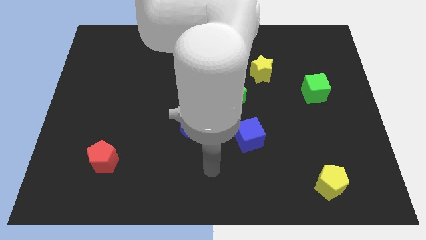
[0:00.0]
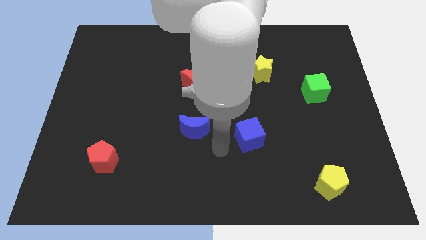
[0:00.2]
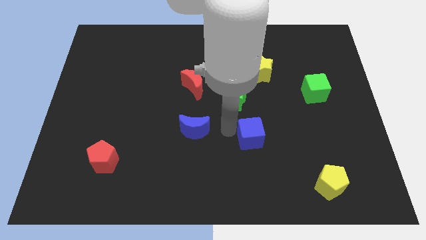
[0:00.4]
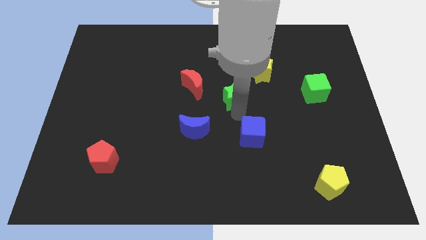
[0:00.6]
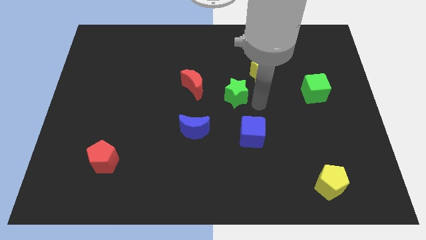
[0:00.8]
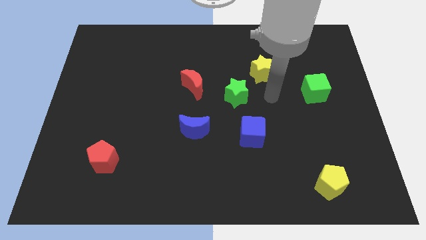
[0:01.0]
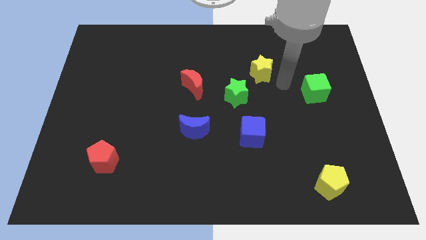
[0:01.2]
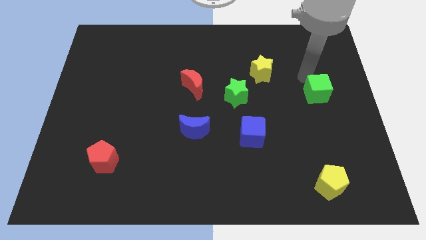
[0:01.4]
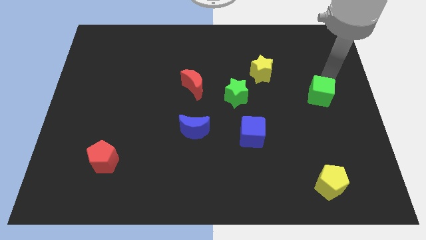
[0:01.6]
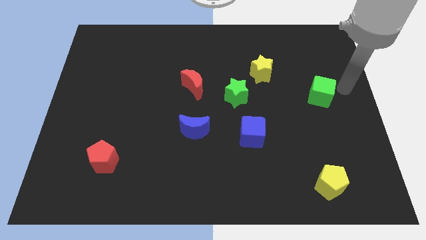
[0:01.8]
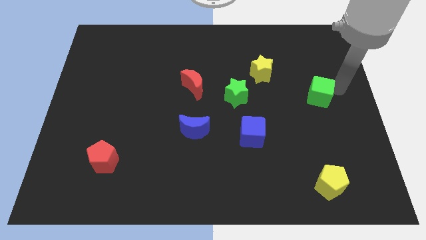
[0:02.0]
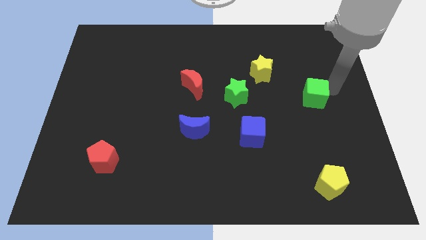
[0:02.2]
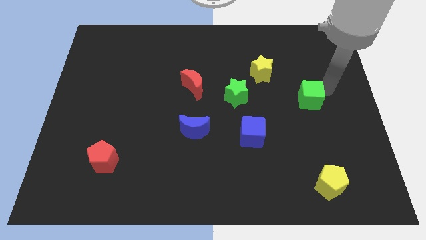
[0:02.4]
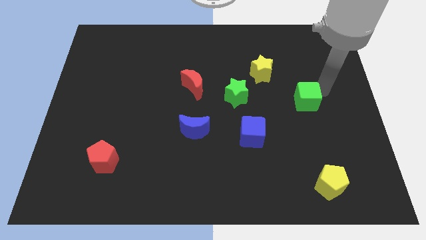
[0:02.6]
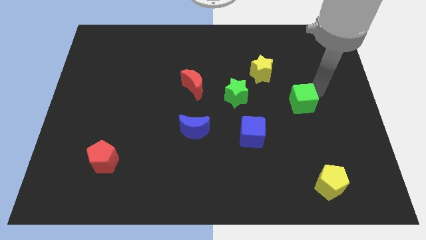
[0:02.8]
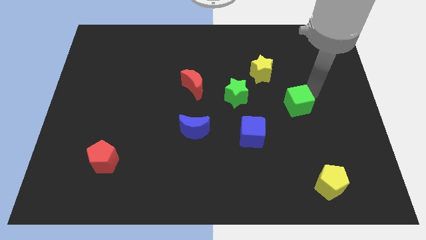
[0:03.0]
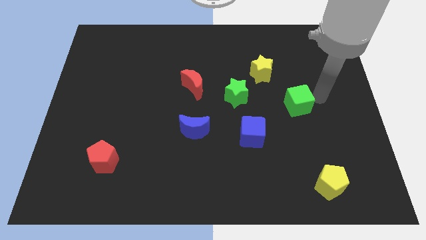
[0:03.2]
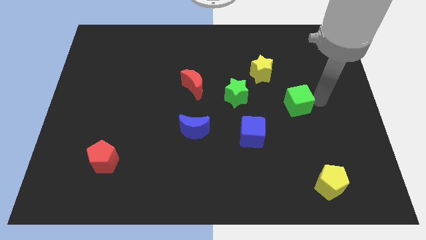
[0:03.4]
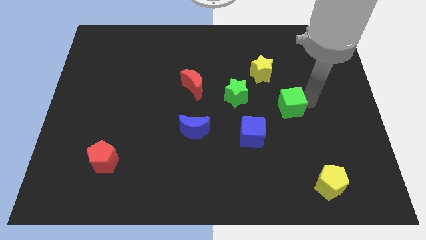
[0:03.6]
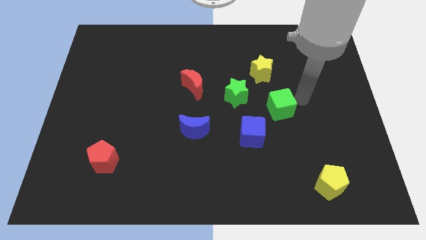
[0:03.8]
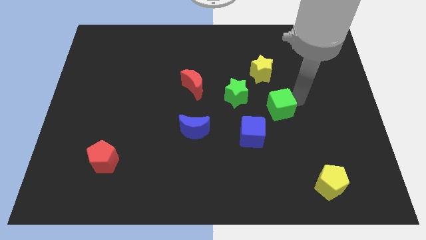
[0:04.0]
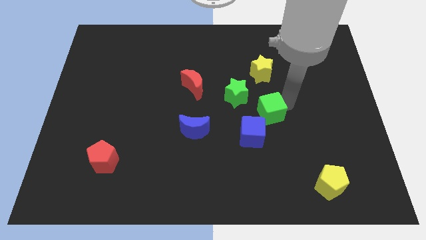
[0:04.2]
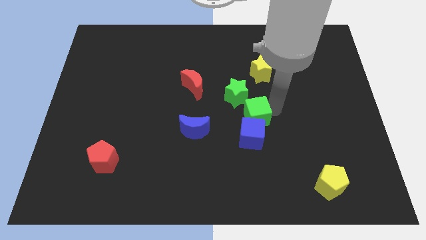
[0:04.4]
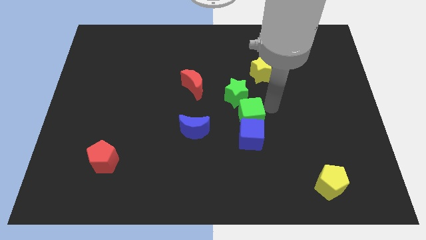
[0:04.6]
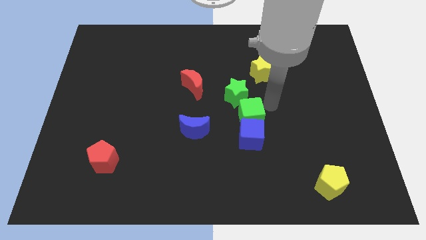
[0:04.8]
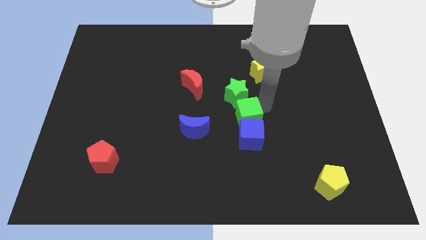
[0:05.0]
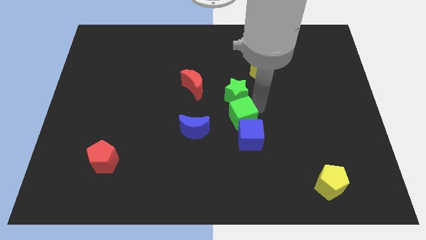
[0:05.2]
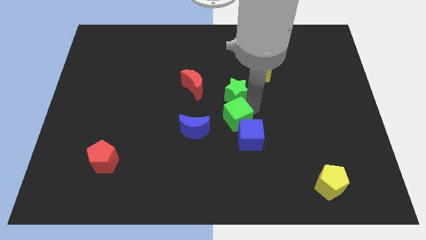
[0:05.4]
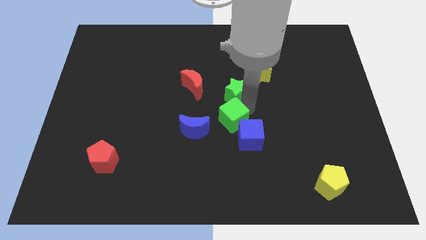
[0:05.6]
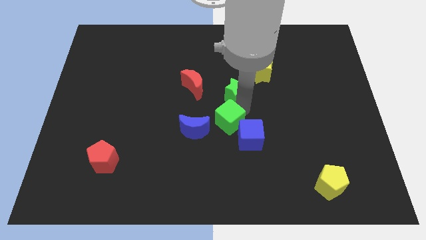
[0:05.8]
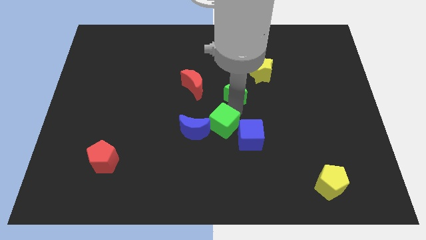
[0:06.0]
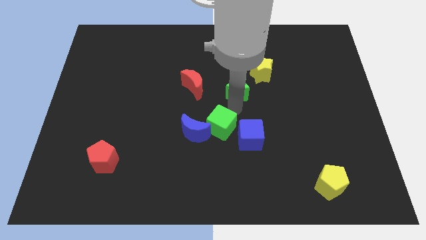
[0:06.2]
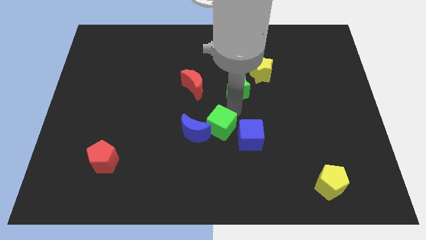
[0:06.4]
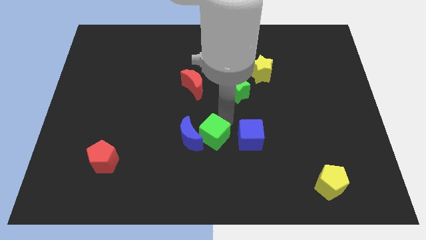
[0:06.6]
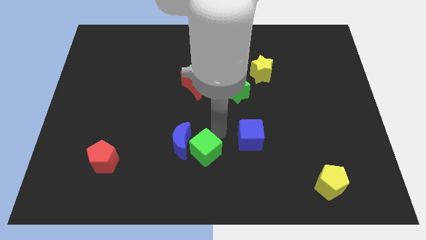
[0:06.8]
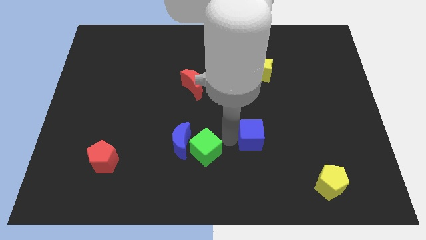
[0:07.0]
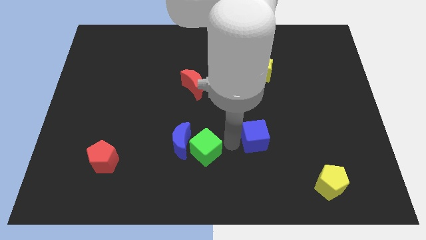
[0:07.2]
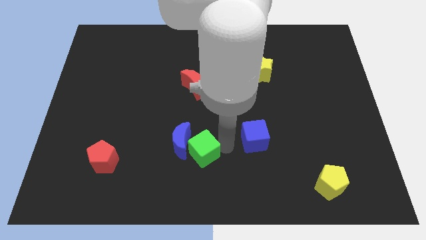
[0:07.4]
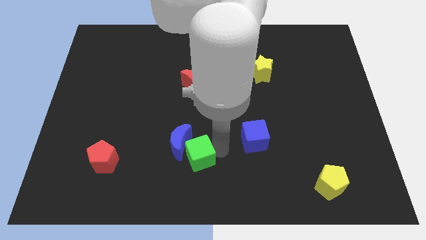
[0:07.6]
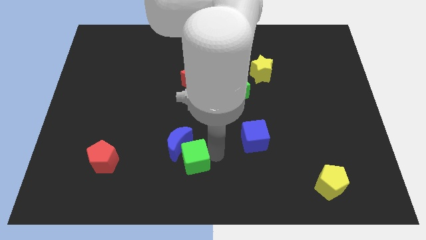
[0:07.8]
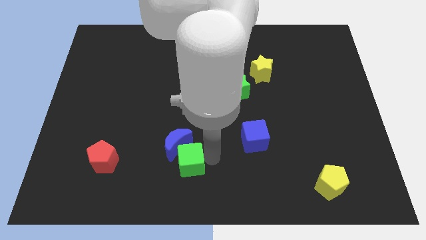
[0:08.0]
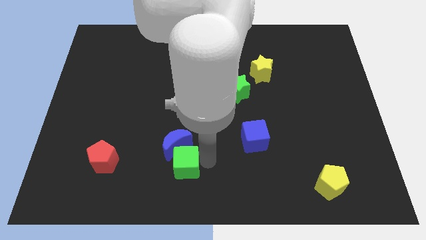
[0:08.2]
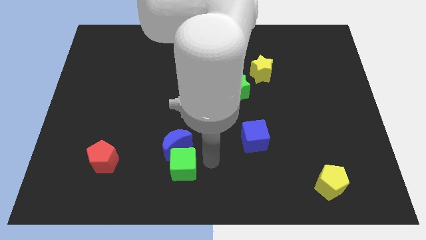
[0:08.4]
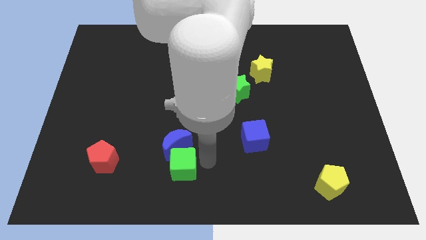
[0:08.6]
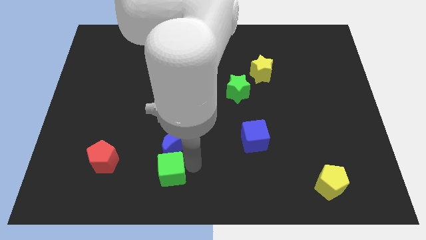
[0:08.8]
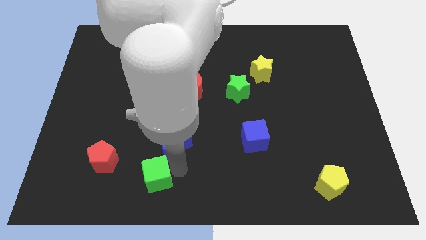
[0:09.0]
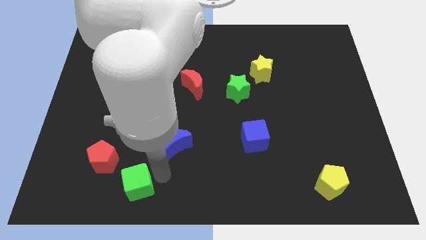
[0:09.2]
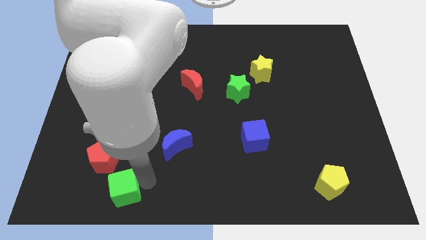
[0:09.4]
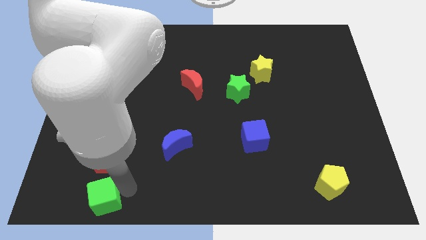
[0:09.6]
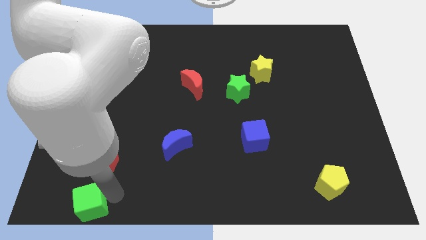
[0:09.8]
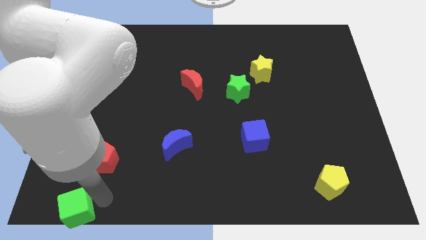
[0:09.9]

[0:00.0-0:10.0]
push the green cube to the bottom left

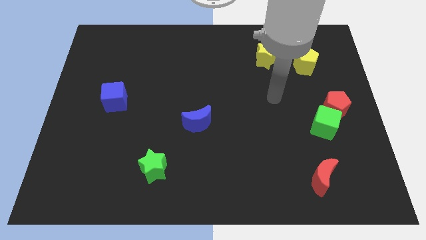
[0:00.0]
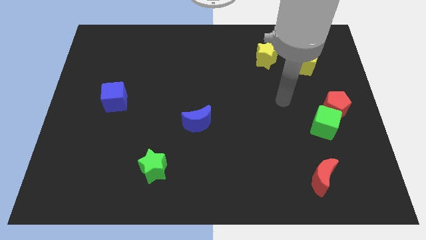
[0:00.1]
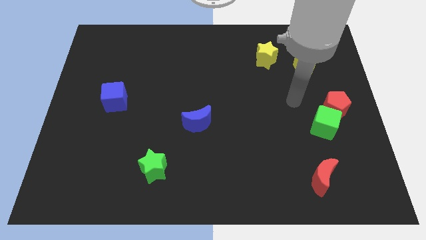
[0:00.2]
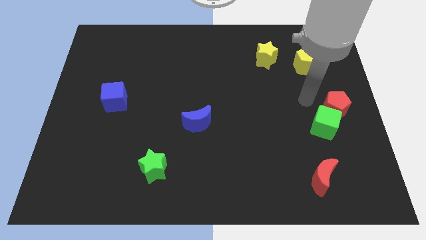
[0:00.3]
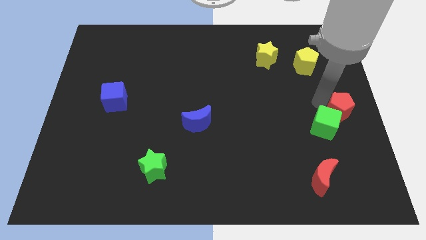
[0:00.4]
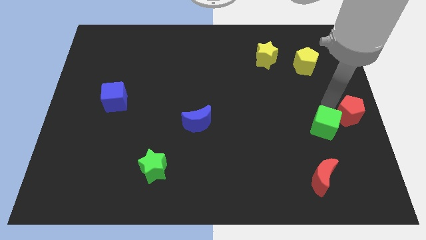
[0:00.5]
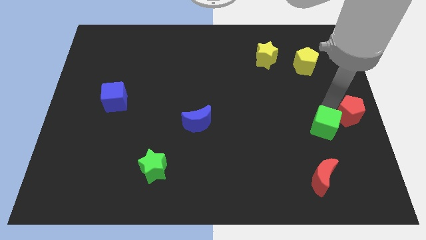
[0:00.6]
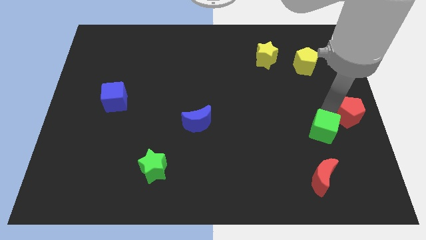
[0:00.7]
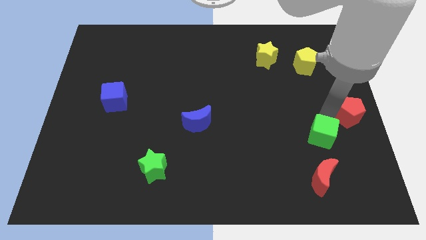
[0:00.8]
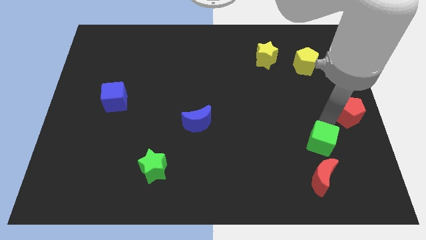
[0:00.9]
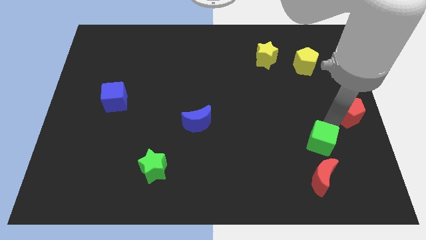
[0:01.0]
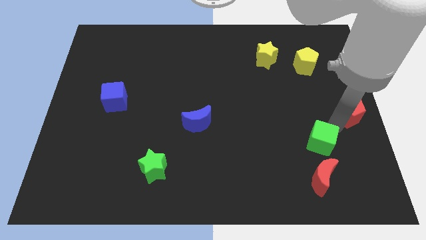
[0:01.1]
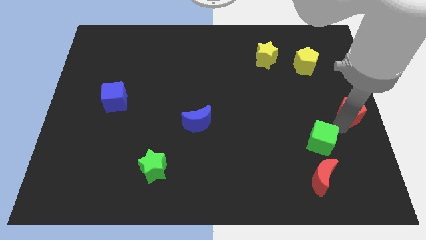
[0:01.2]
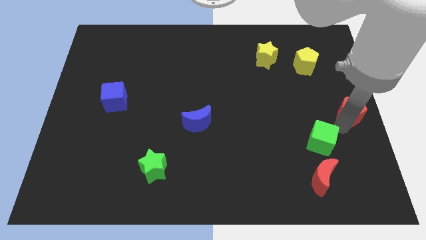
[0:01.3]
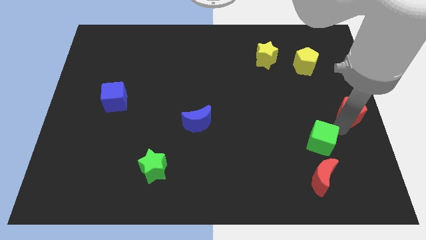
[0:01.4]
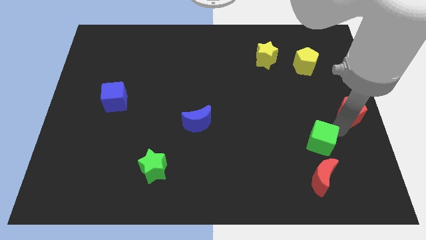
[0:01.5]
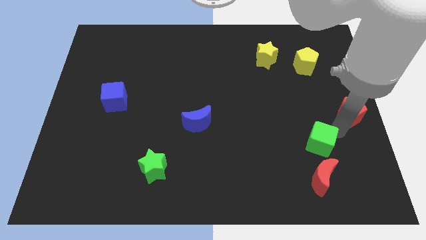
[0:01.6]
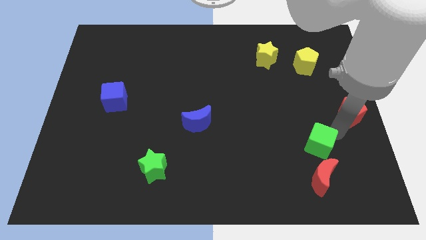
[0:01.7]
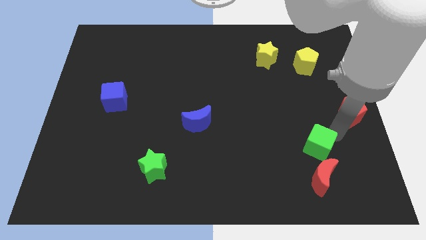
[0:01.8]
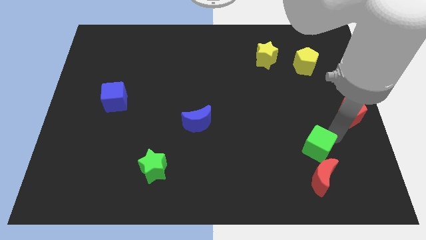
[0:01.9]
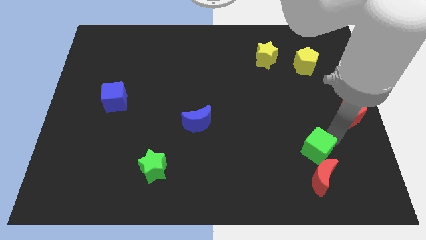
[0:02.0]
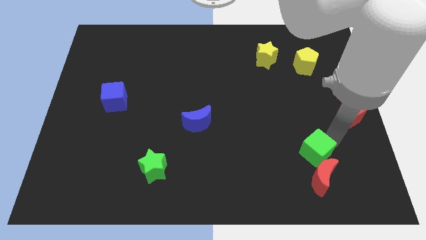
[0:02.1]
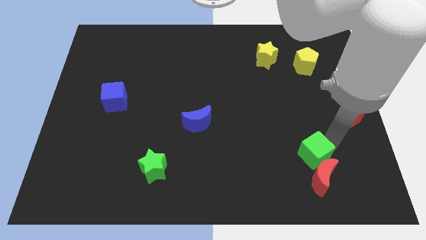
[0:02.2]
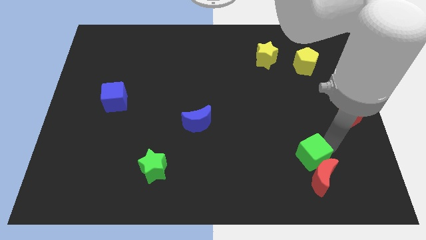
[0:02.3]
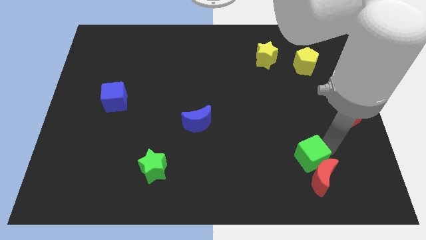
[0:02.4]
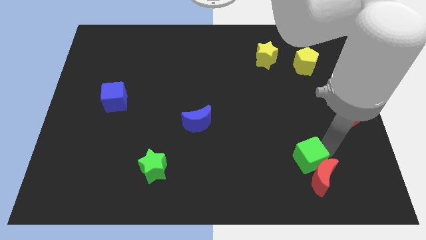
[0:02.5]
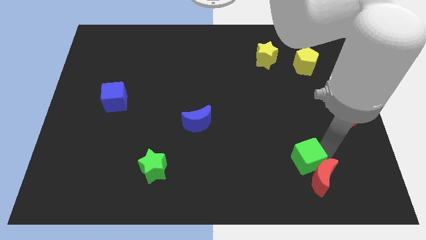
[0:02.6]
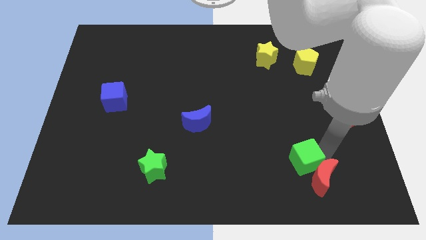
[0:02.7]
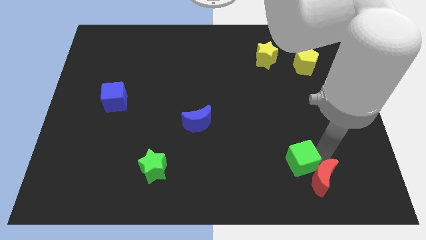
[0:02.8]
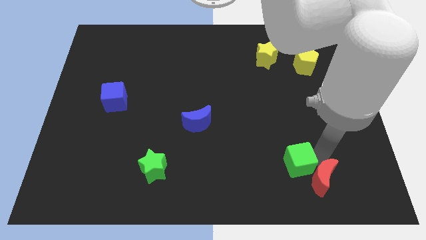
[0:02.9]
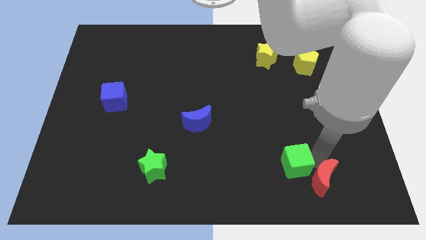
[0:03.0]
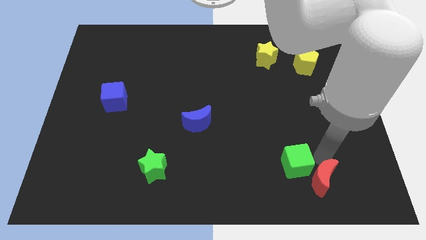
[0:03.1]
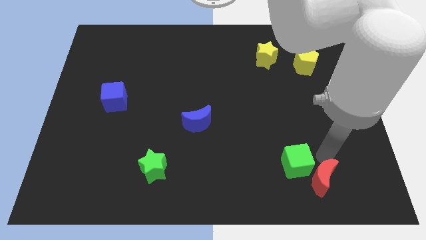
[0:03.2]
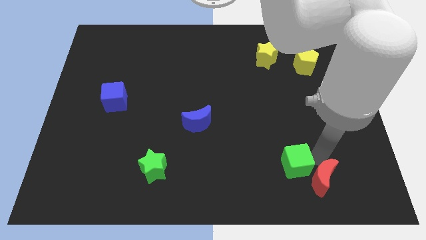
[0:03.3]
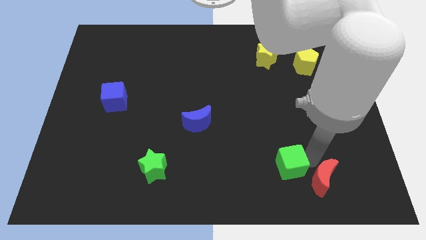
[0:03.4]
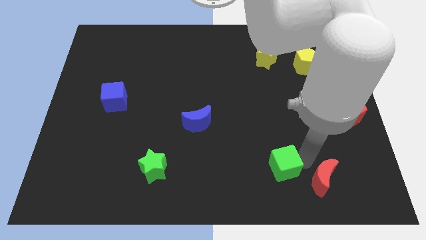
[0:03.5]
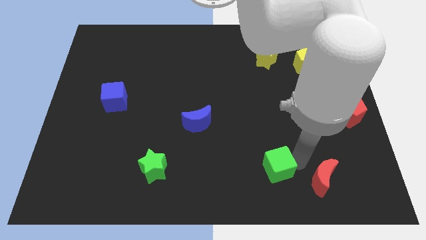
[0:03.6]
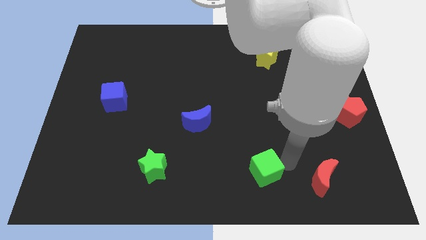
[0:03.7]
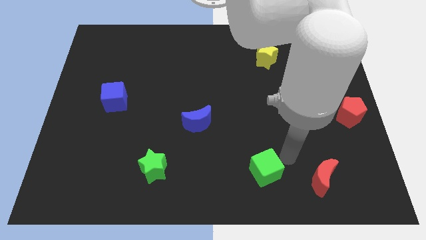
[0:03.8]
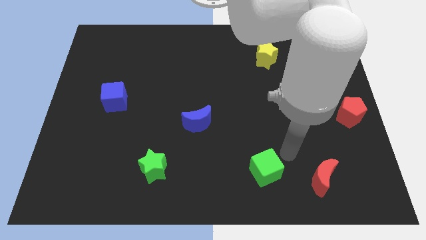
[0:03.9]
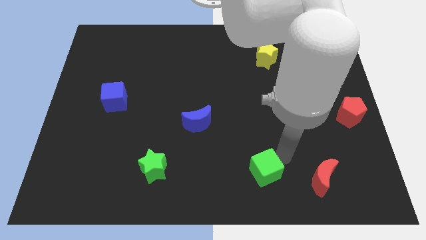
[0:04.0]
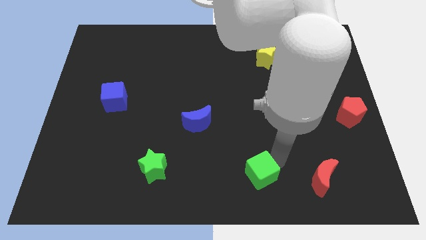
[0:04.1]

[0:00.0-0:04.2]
push the green cube to the bottom side
